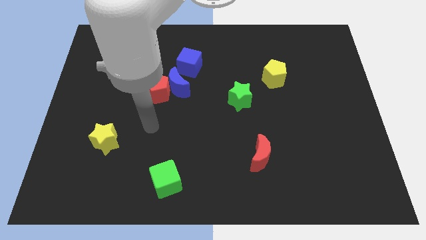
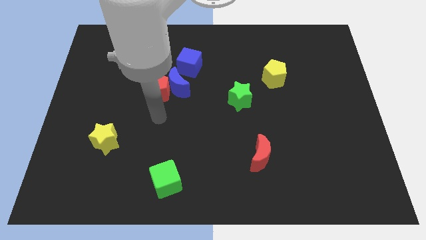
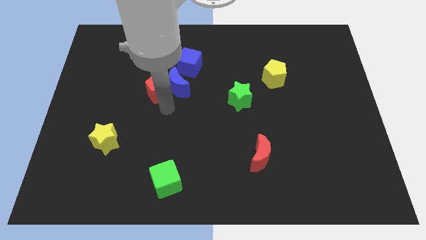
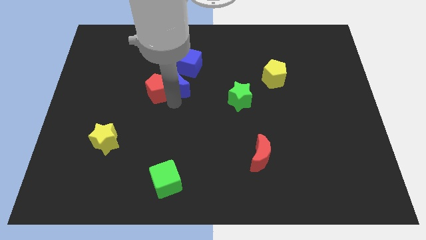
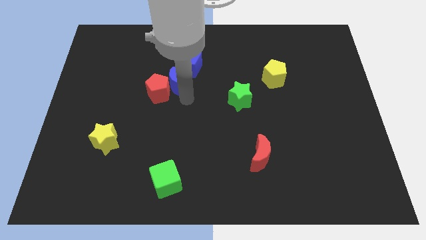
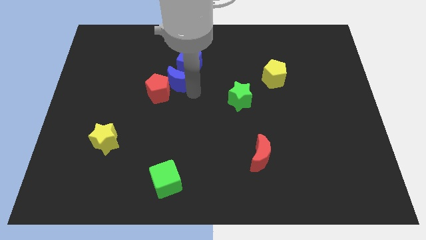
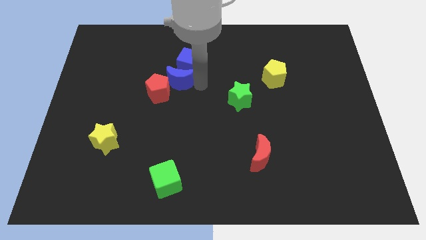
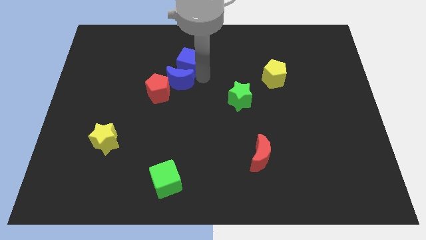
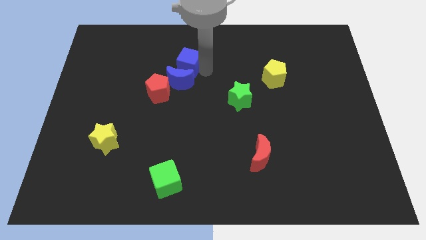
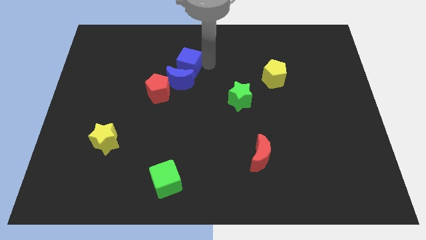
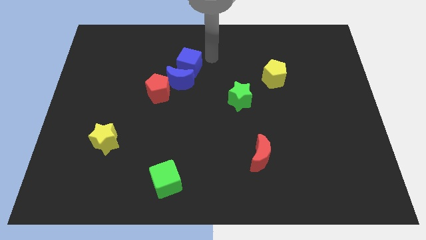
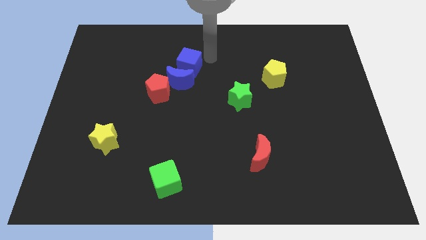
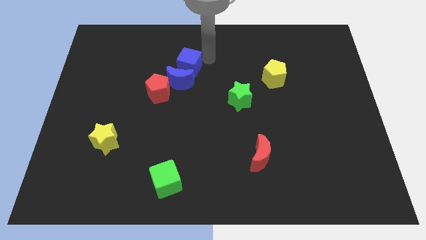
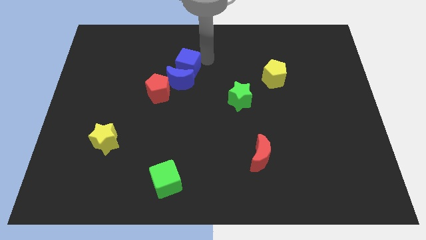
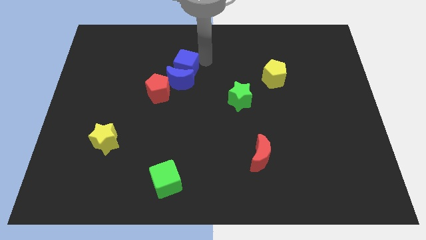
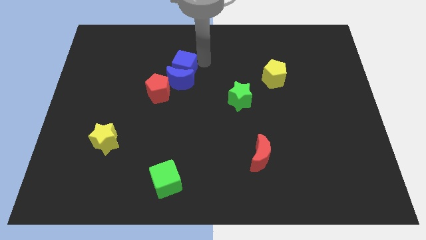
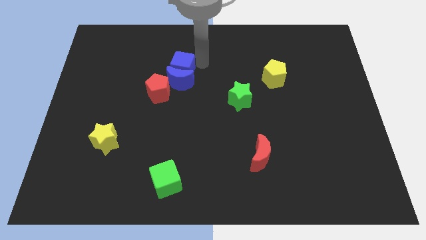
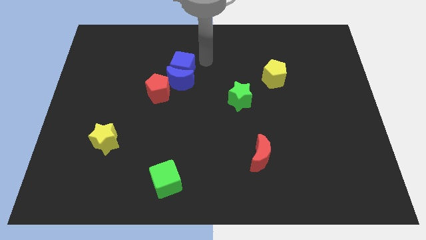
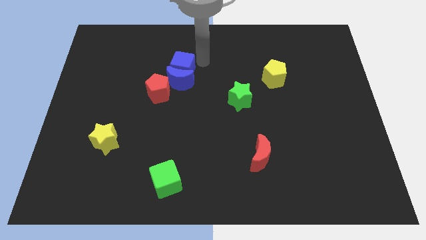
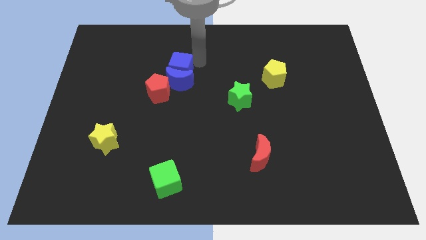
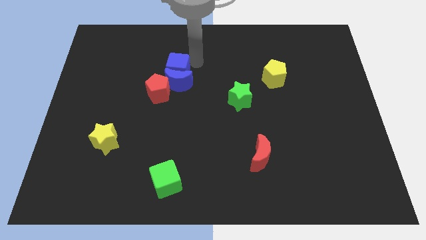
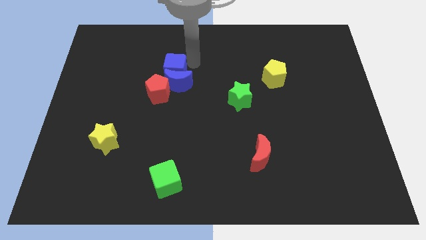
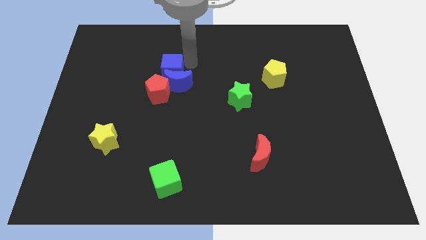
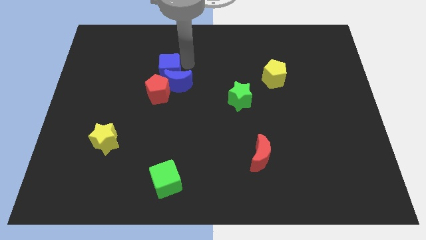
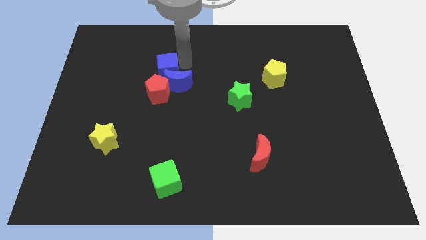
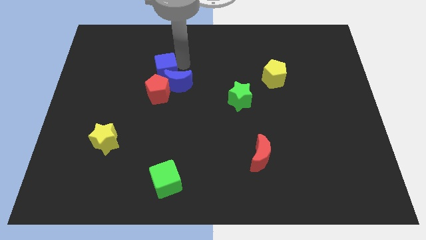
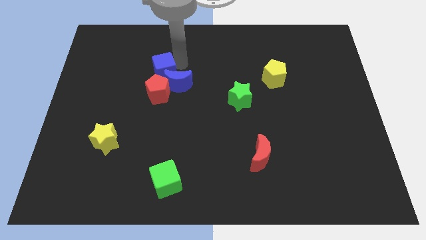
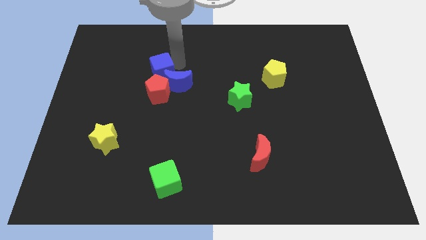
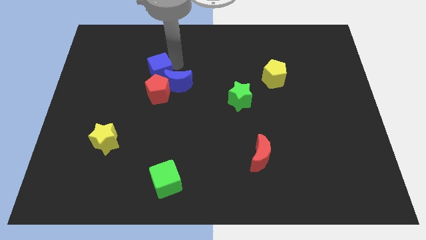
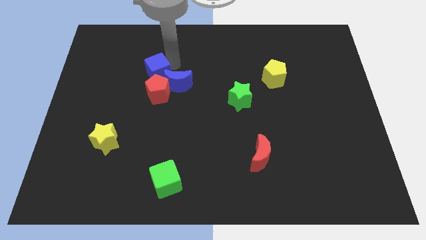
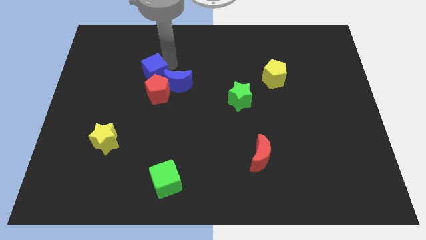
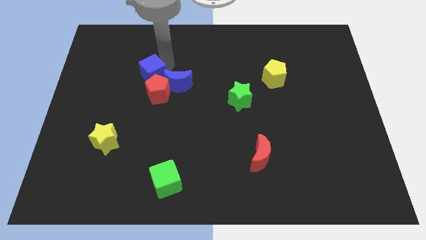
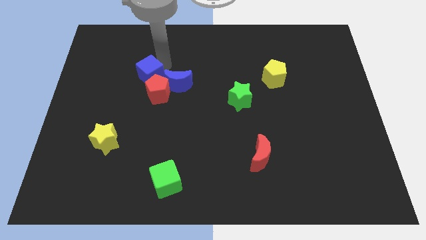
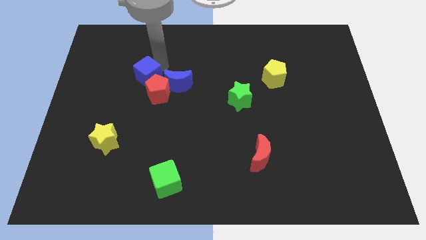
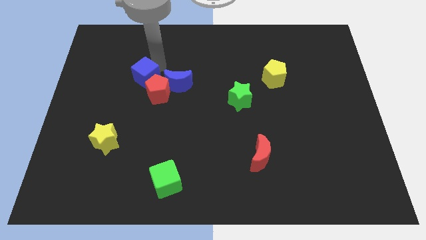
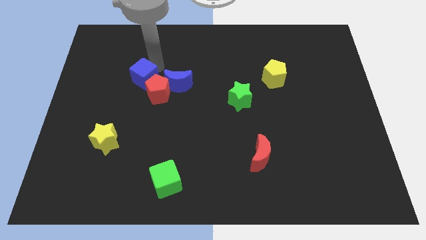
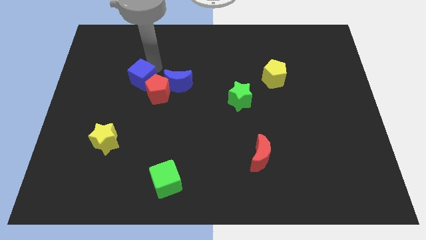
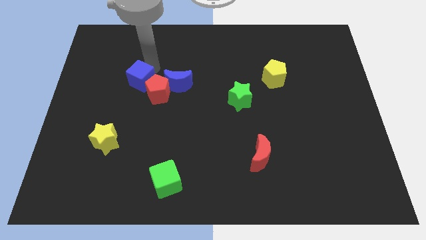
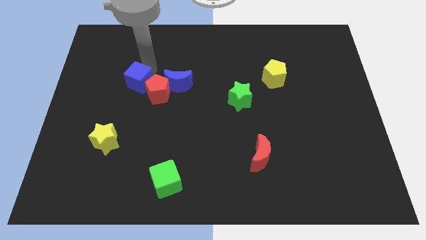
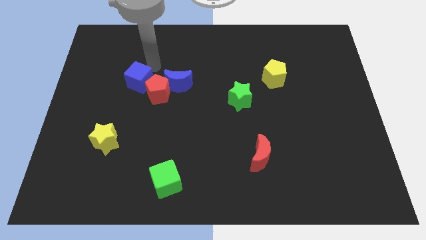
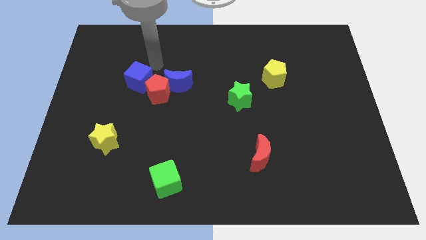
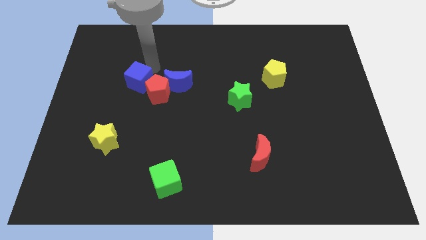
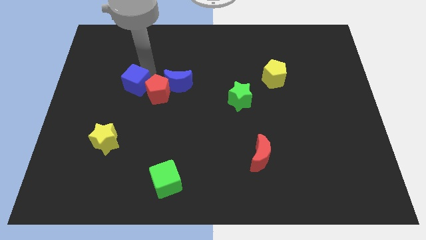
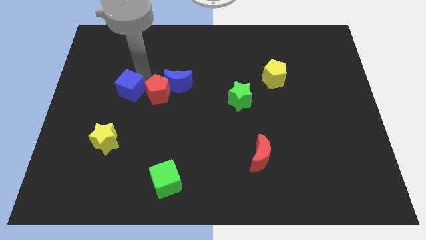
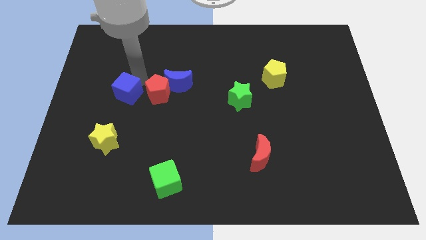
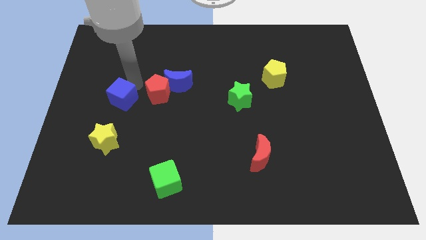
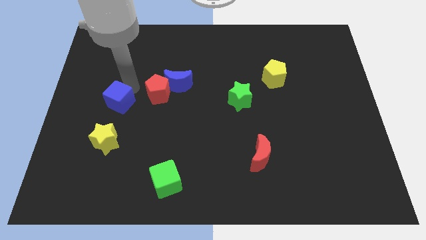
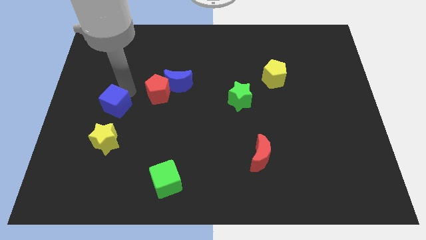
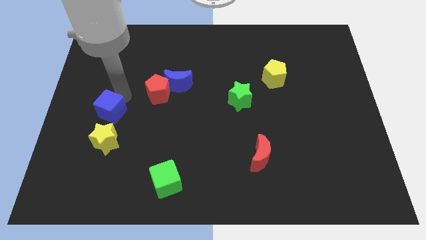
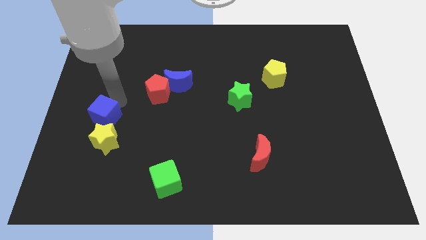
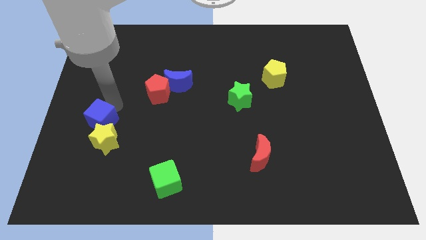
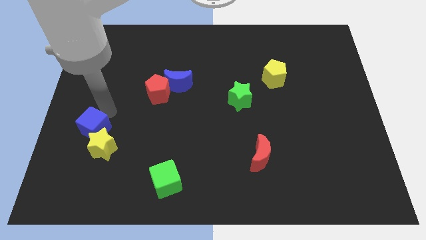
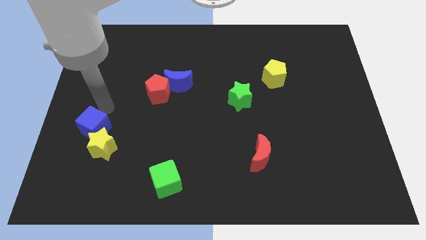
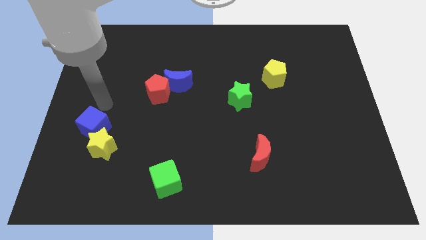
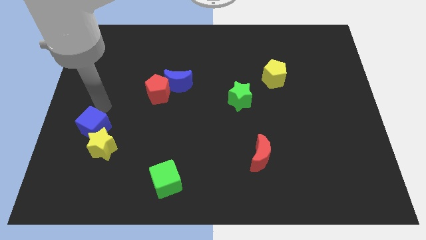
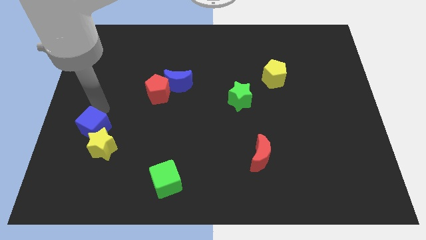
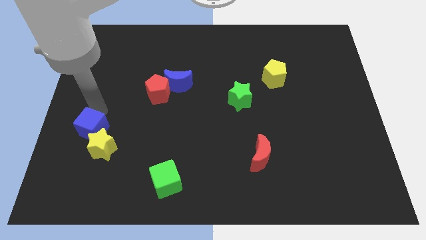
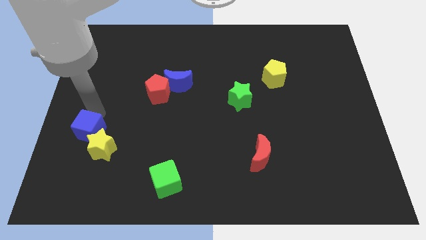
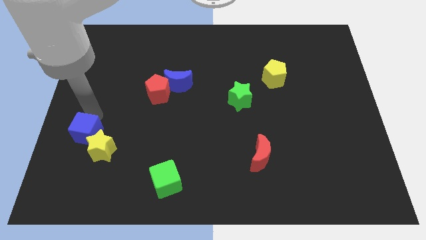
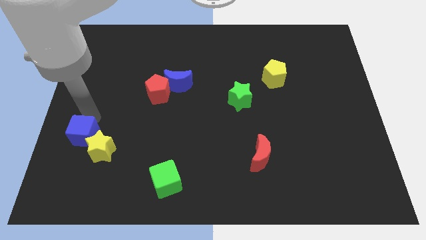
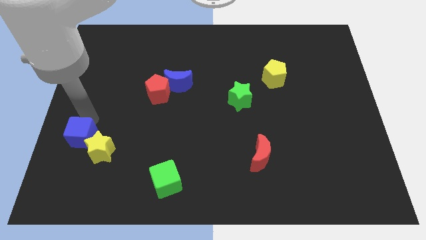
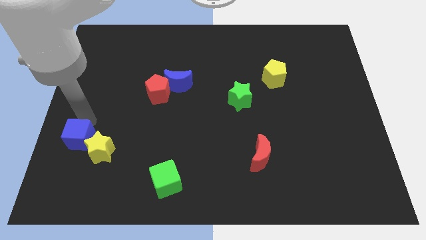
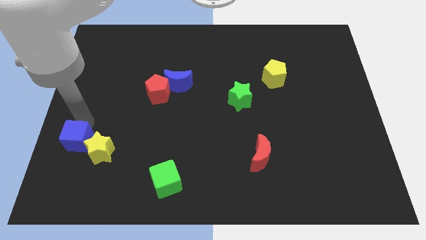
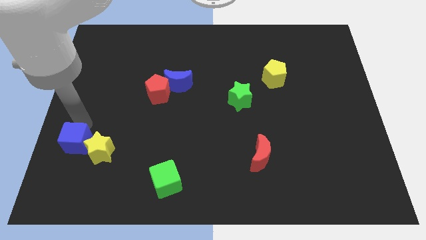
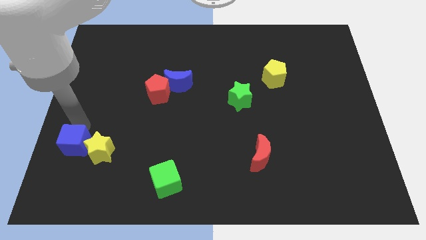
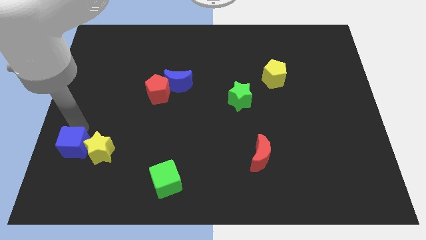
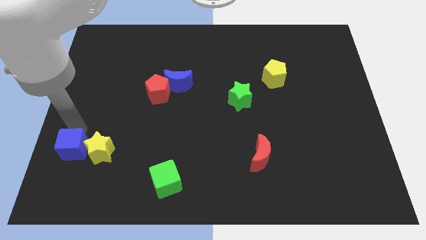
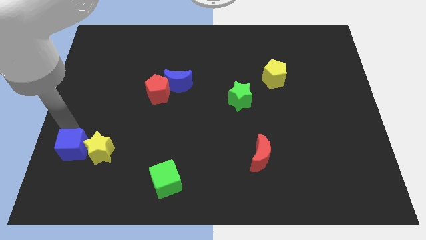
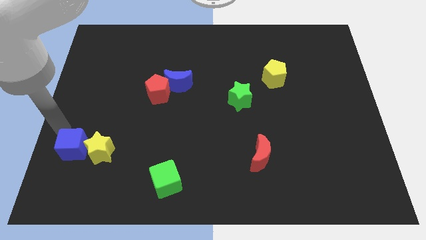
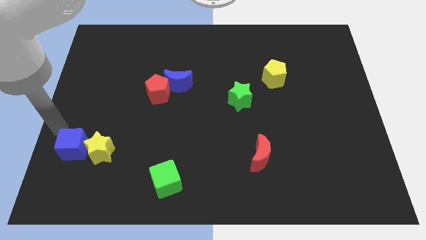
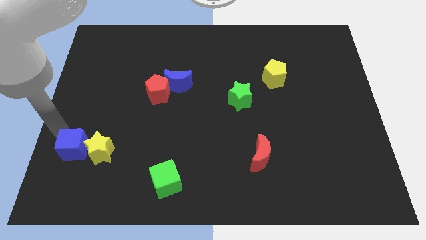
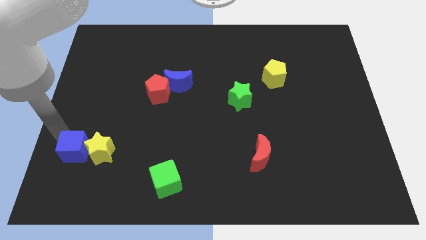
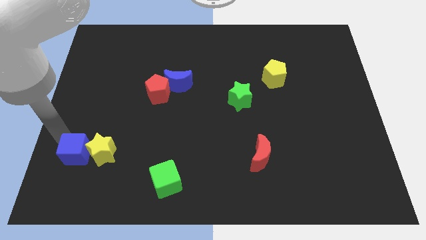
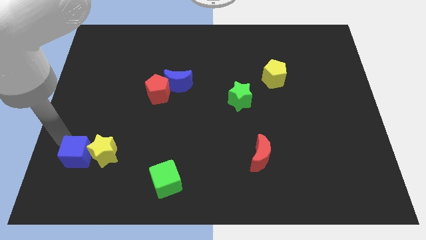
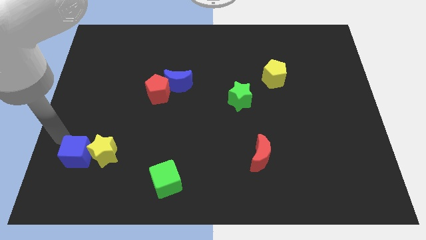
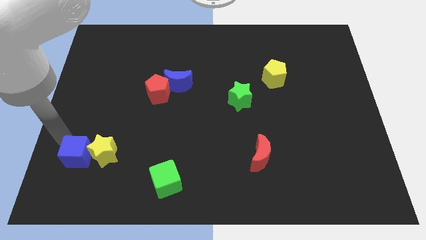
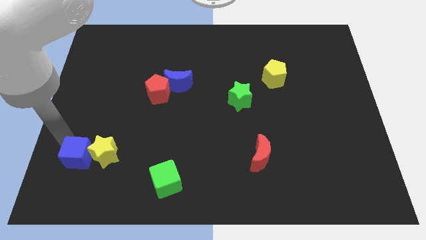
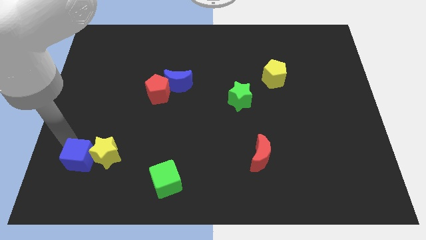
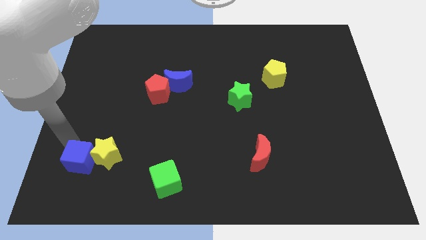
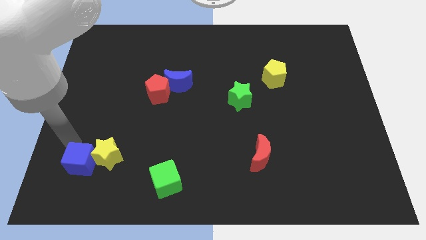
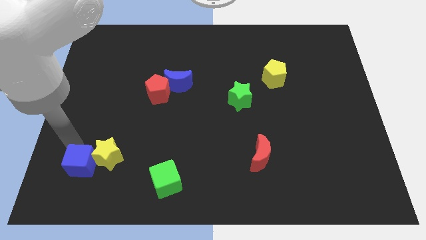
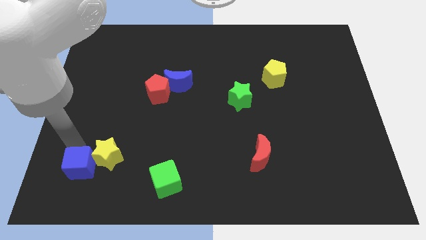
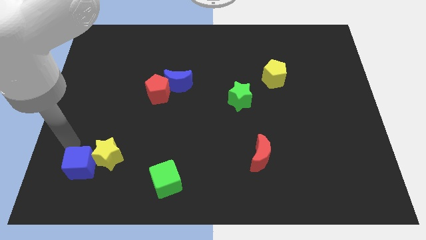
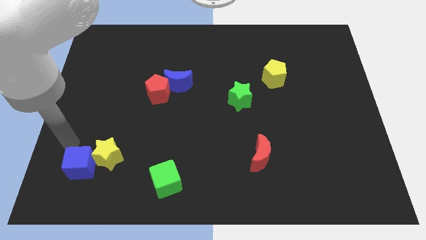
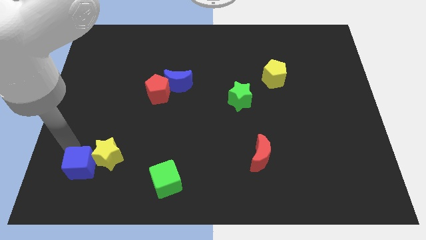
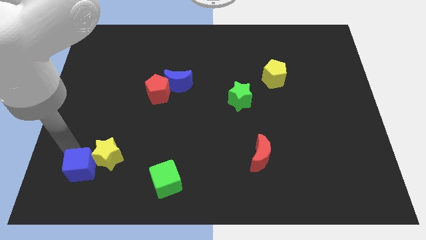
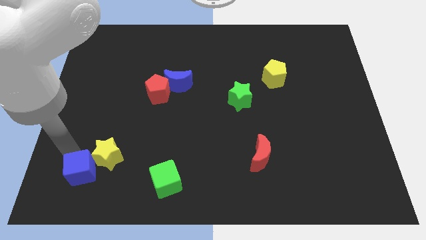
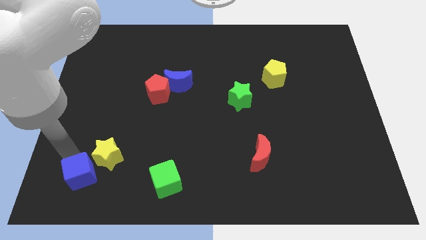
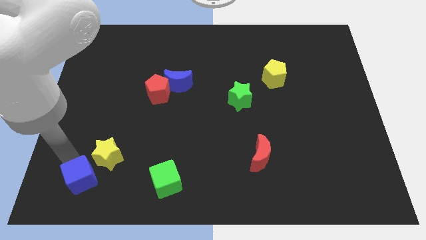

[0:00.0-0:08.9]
move the blue cube to the bottom side of the yellow star
